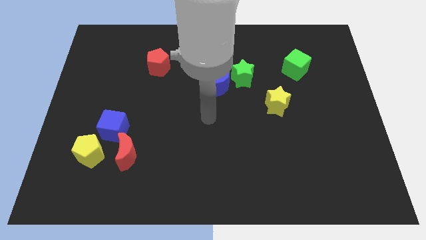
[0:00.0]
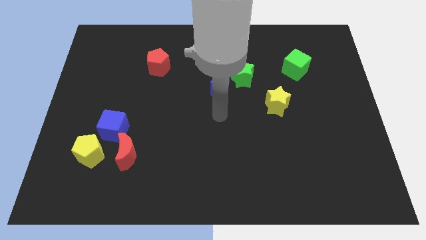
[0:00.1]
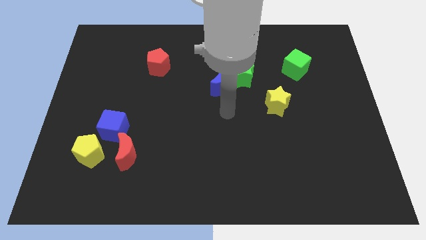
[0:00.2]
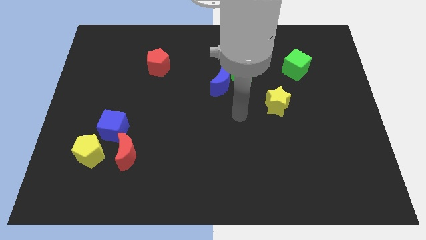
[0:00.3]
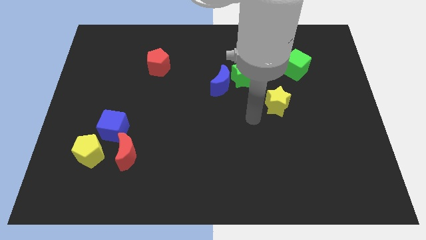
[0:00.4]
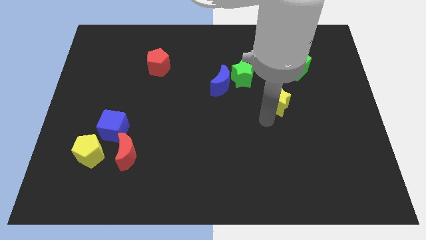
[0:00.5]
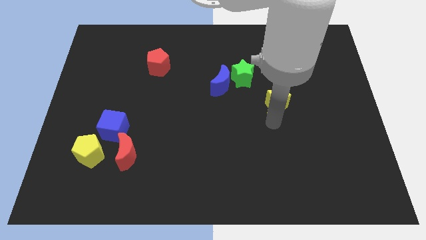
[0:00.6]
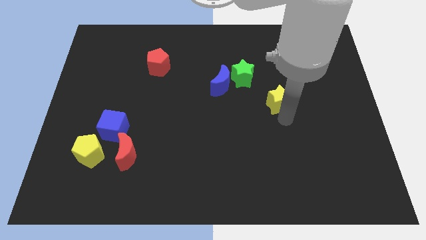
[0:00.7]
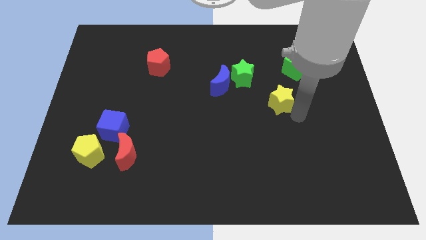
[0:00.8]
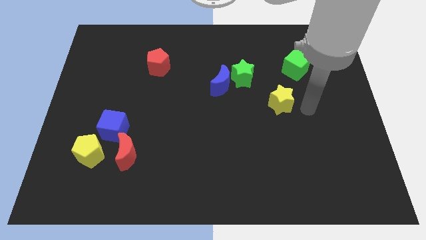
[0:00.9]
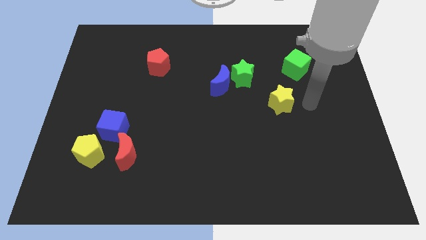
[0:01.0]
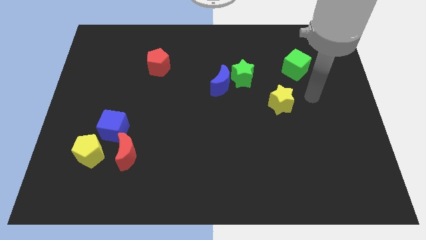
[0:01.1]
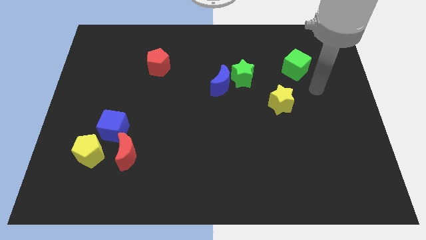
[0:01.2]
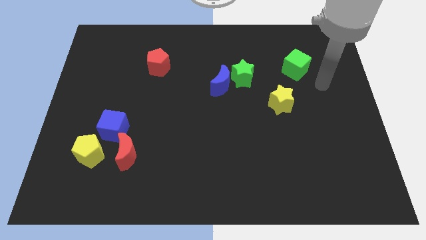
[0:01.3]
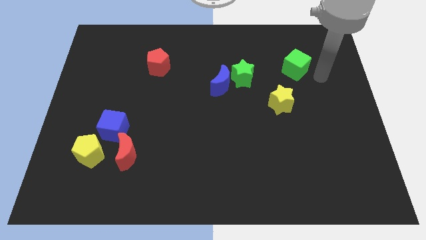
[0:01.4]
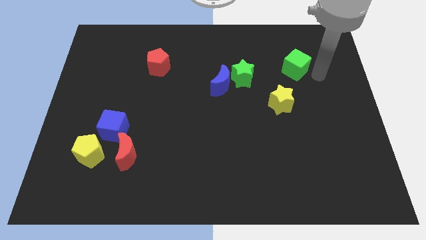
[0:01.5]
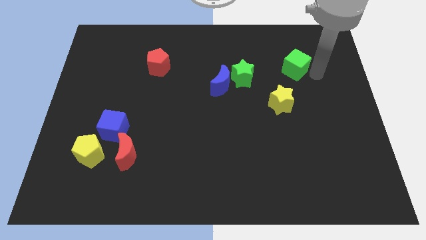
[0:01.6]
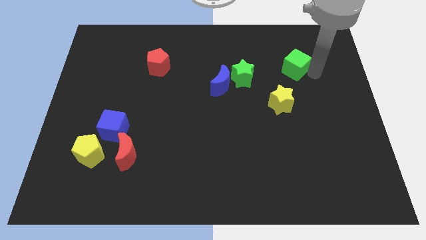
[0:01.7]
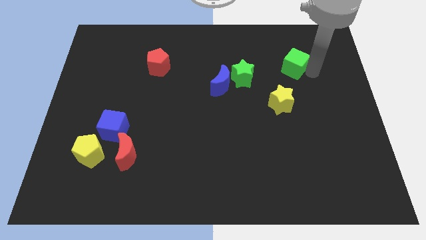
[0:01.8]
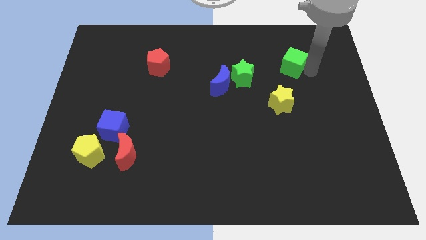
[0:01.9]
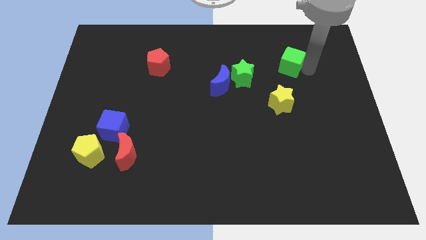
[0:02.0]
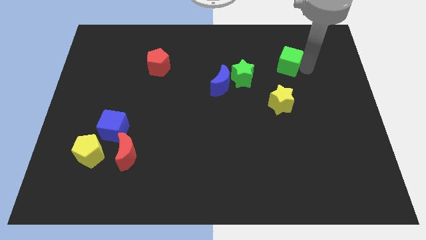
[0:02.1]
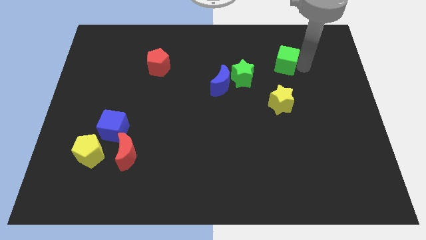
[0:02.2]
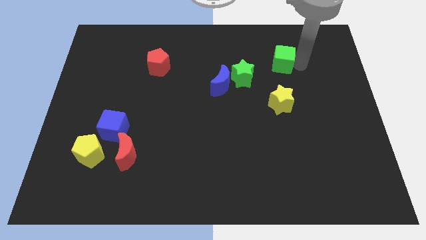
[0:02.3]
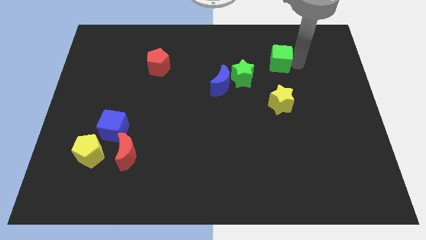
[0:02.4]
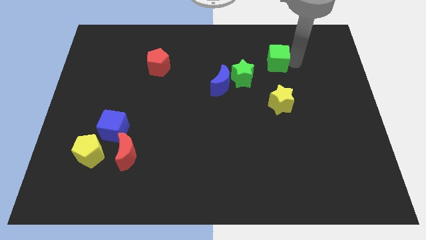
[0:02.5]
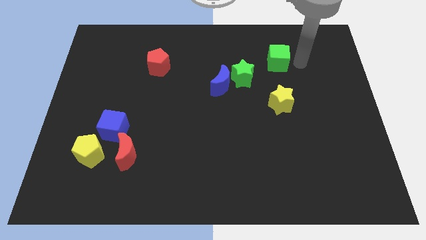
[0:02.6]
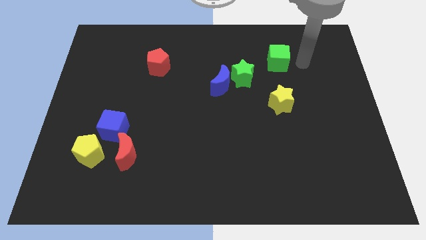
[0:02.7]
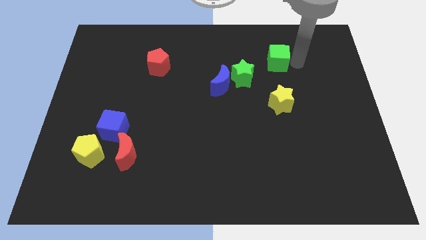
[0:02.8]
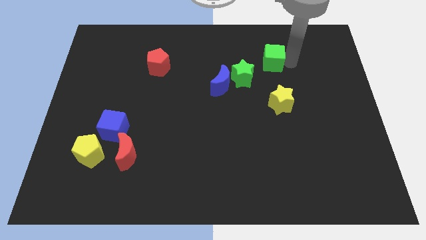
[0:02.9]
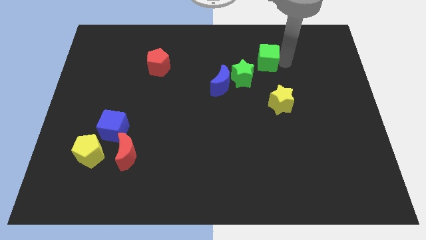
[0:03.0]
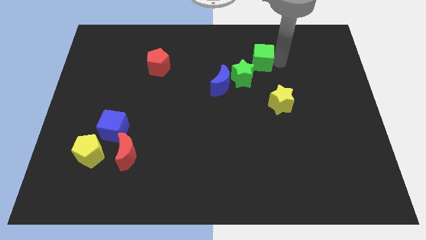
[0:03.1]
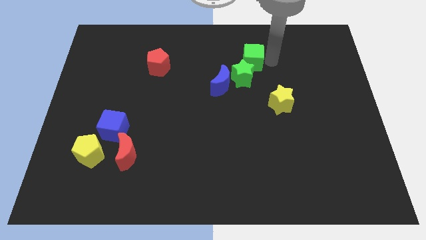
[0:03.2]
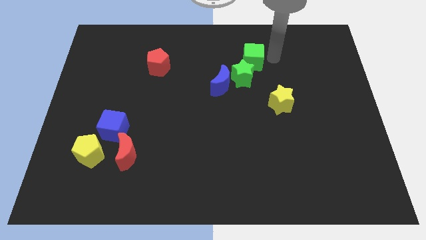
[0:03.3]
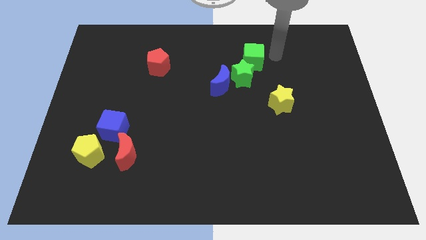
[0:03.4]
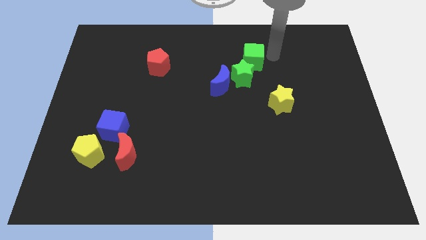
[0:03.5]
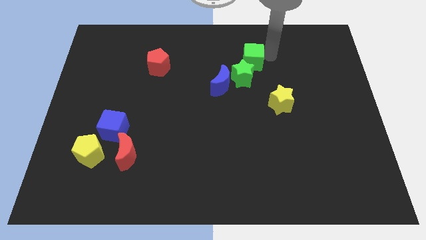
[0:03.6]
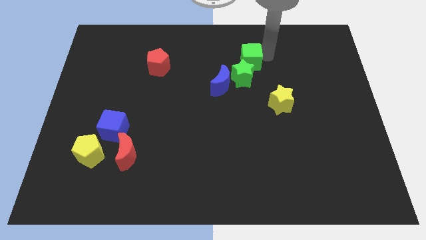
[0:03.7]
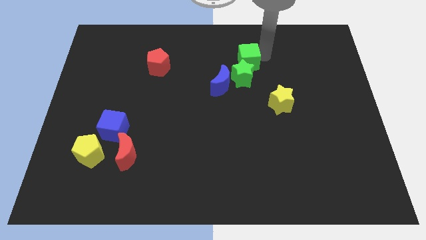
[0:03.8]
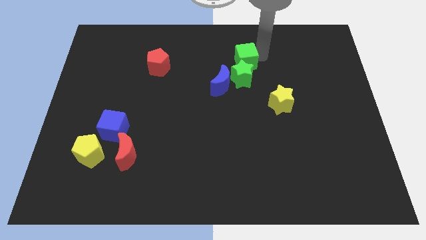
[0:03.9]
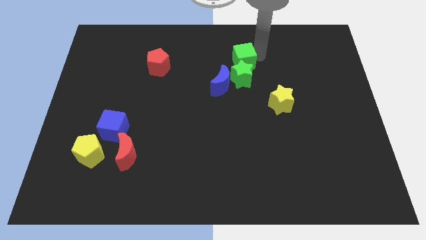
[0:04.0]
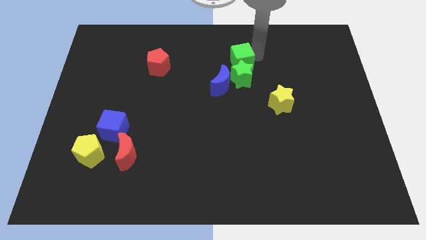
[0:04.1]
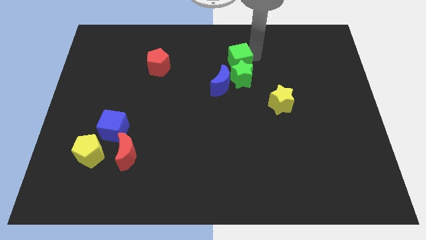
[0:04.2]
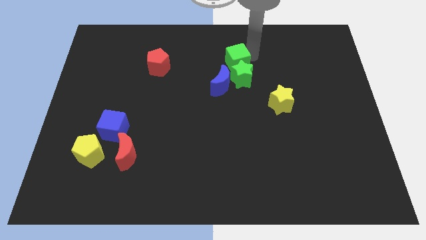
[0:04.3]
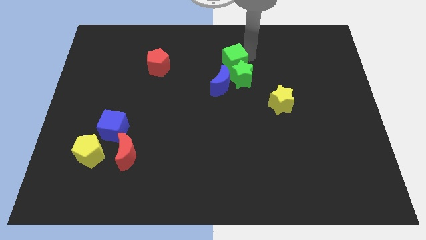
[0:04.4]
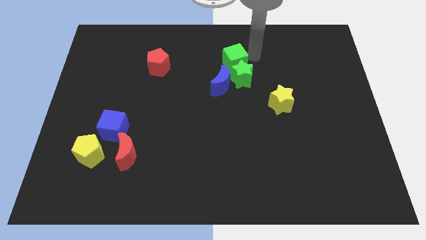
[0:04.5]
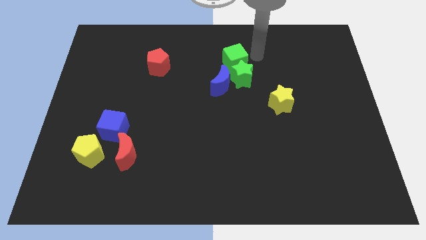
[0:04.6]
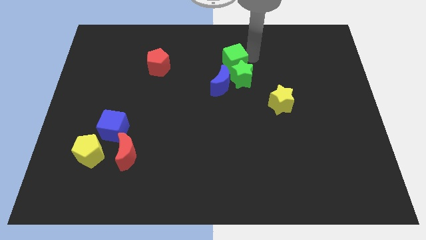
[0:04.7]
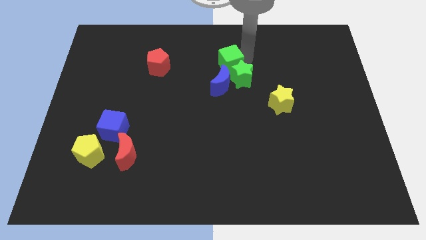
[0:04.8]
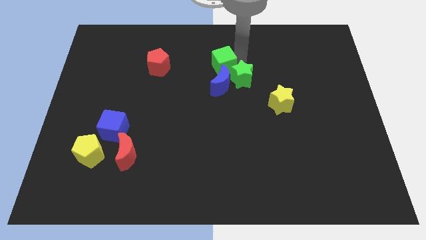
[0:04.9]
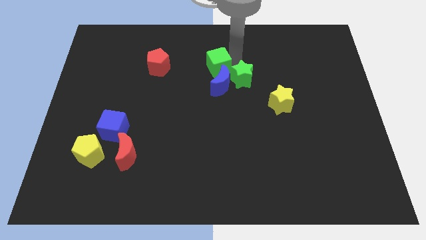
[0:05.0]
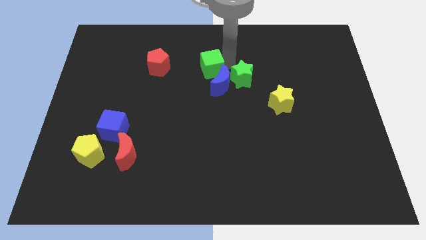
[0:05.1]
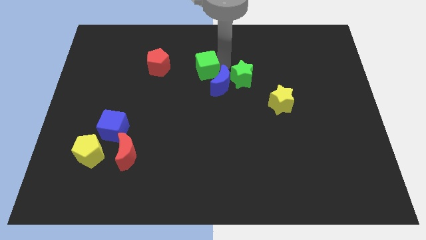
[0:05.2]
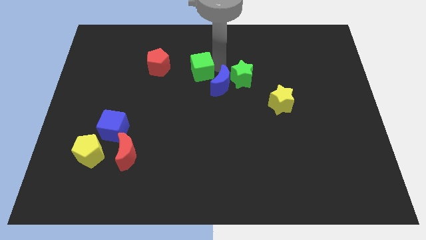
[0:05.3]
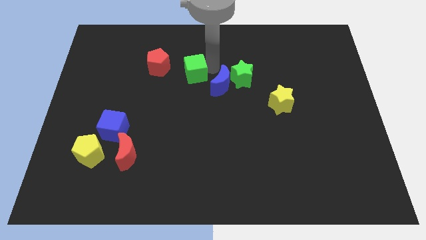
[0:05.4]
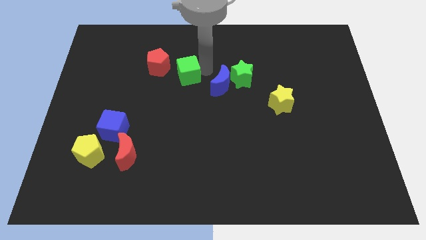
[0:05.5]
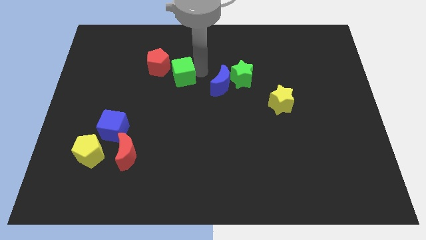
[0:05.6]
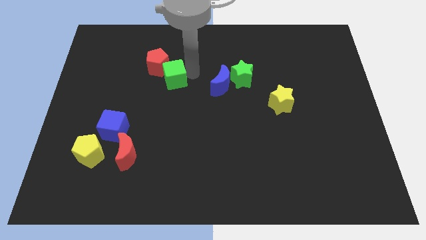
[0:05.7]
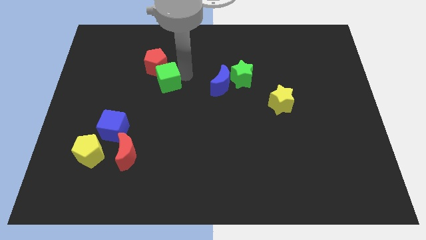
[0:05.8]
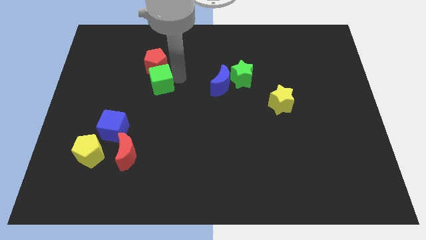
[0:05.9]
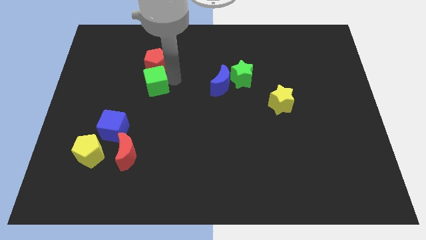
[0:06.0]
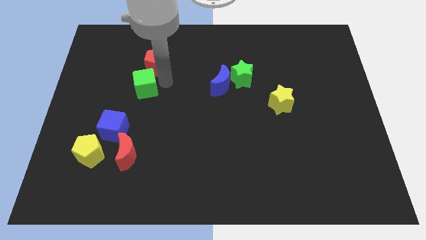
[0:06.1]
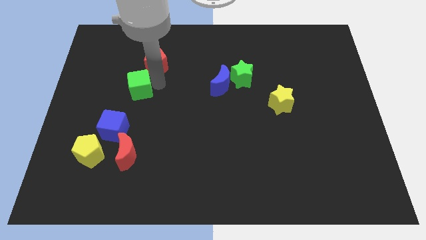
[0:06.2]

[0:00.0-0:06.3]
slide the green cube to the top side of the blue cube

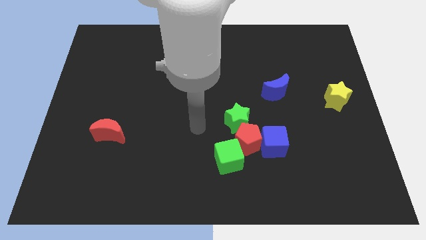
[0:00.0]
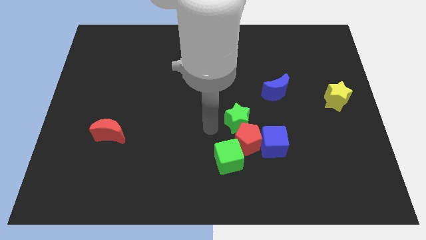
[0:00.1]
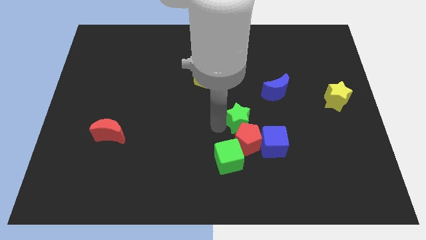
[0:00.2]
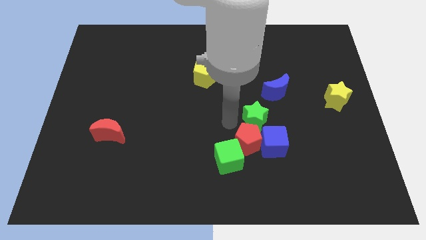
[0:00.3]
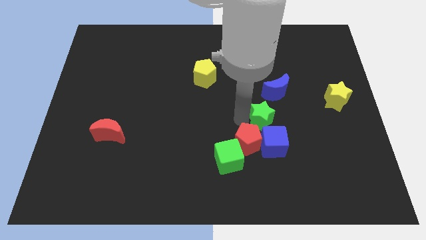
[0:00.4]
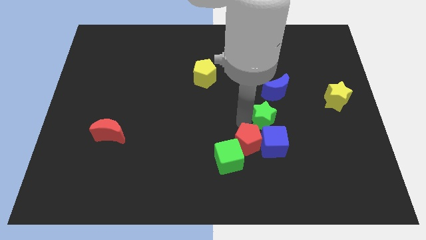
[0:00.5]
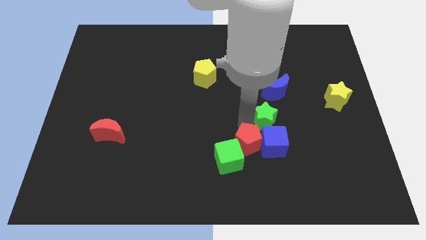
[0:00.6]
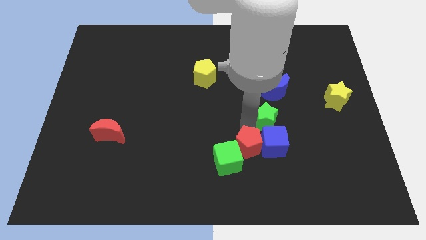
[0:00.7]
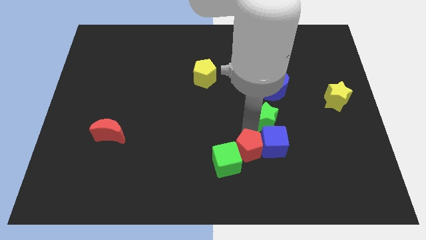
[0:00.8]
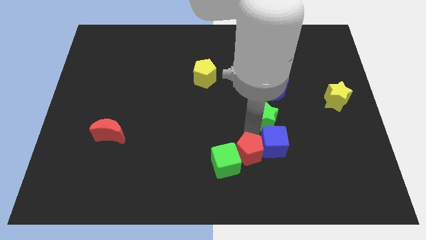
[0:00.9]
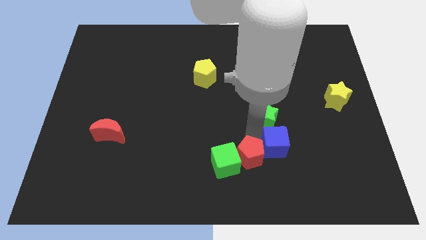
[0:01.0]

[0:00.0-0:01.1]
move the red pentagon to the bottom right of the green cube
